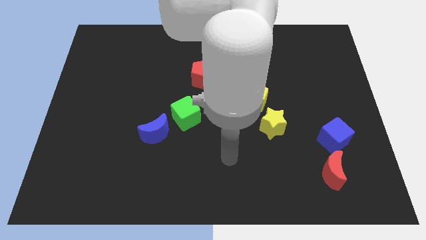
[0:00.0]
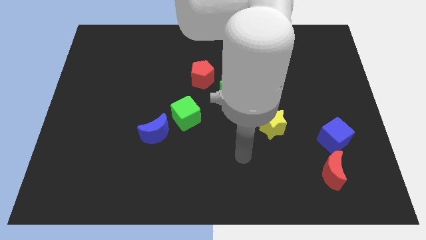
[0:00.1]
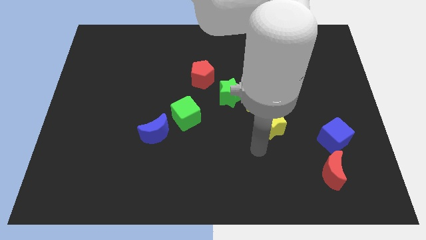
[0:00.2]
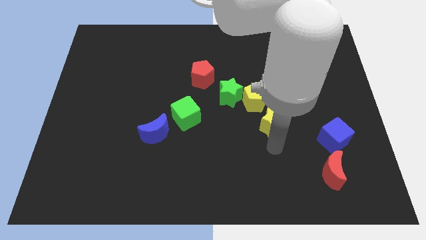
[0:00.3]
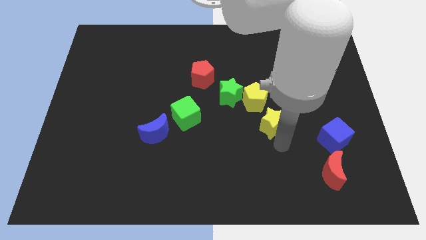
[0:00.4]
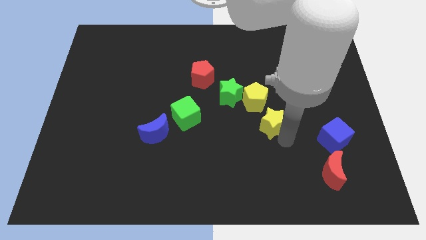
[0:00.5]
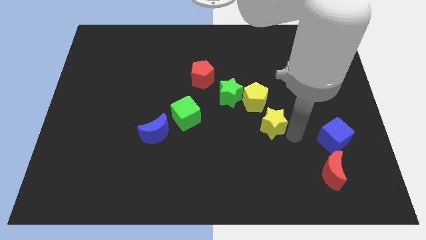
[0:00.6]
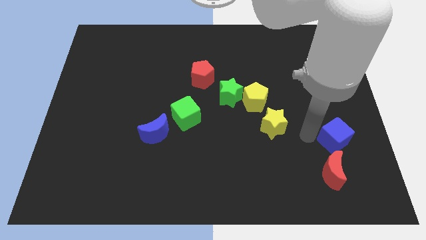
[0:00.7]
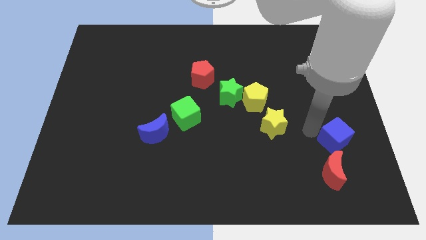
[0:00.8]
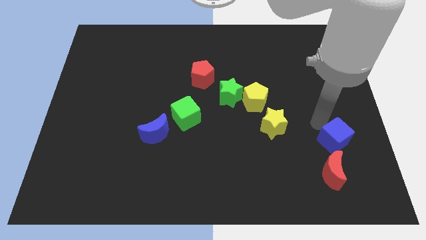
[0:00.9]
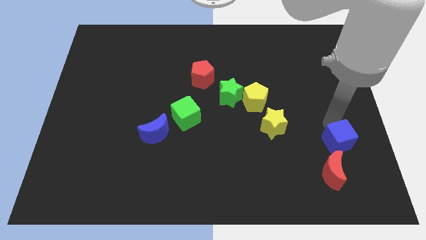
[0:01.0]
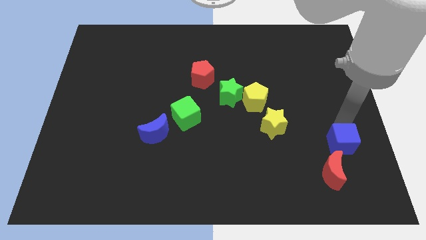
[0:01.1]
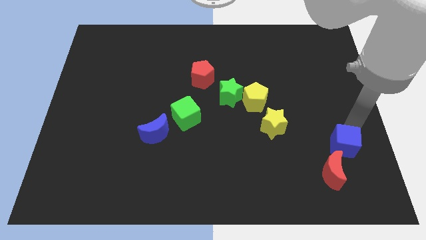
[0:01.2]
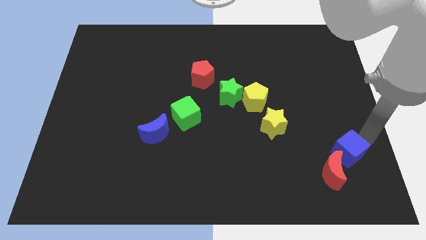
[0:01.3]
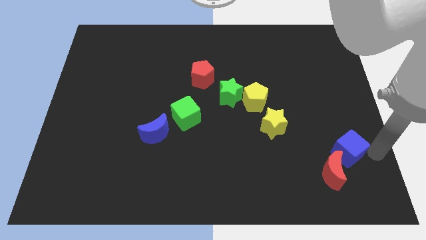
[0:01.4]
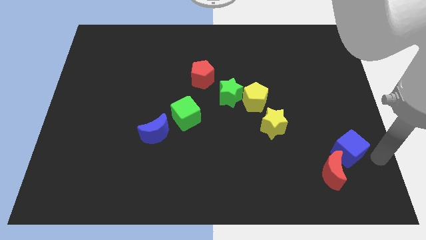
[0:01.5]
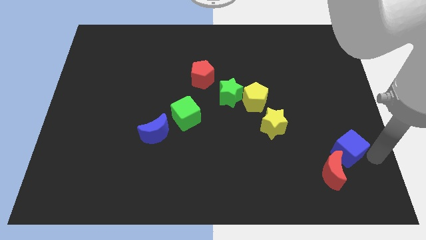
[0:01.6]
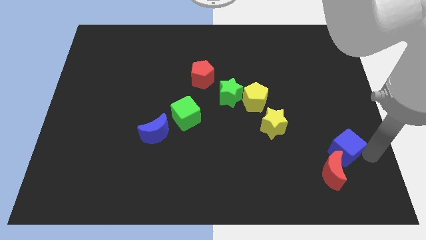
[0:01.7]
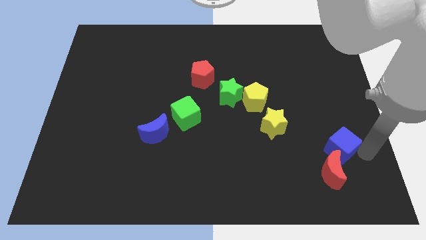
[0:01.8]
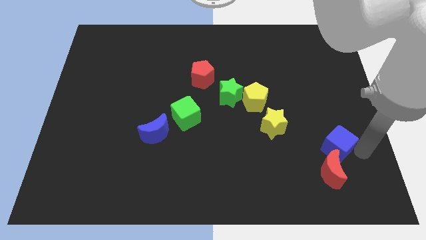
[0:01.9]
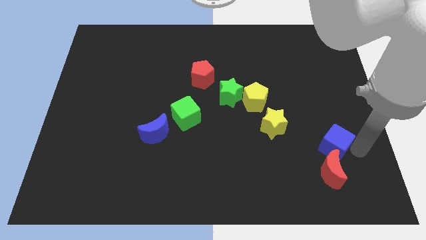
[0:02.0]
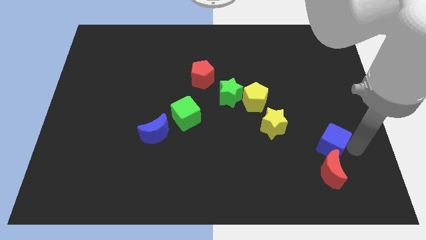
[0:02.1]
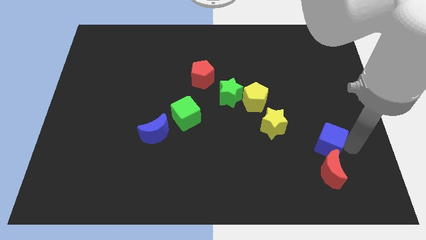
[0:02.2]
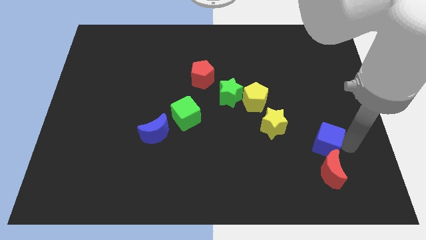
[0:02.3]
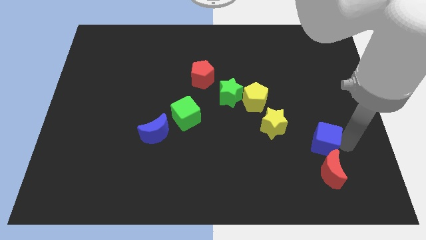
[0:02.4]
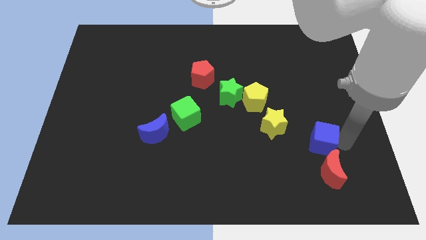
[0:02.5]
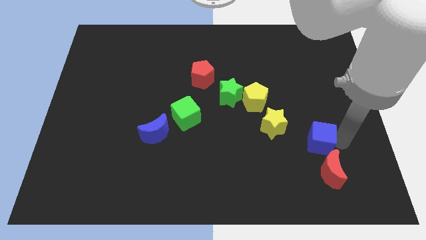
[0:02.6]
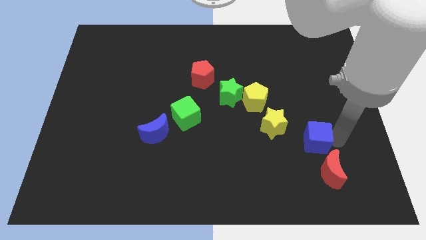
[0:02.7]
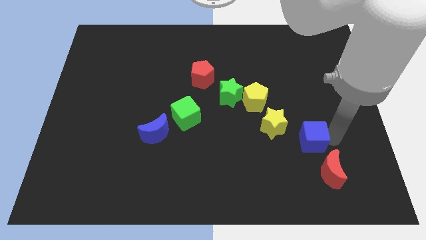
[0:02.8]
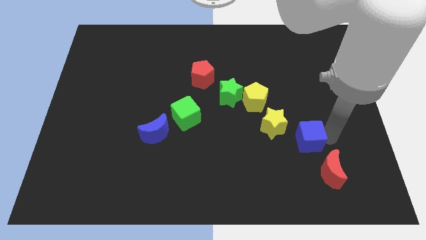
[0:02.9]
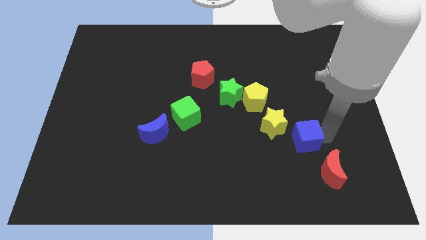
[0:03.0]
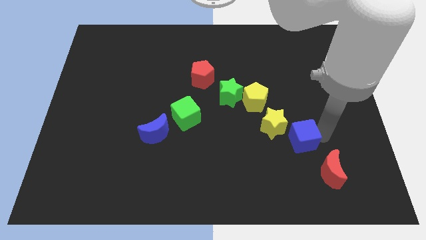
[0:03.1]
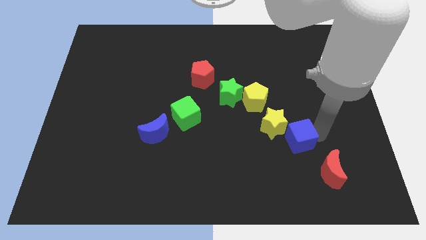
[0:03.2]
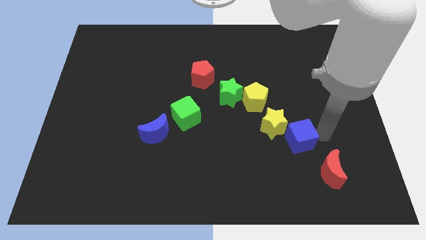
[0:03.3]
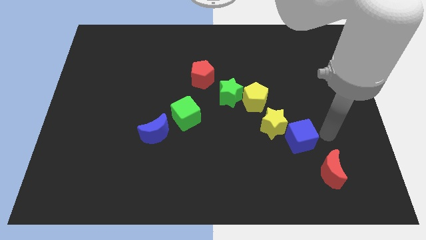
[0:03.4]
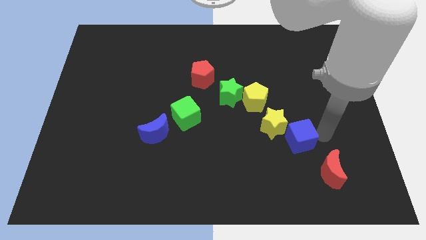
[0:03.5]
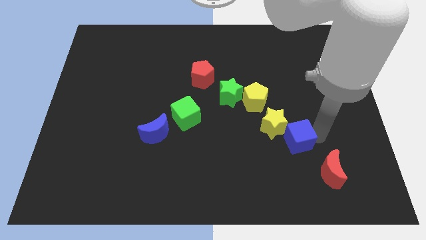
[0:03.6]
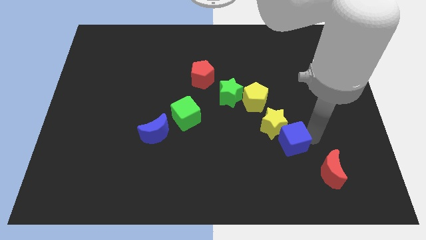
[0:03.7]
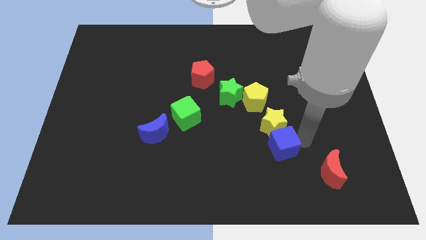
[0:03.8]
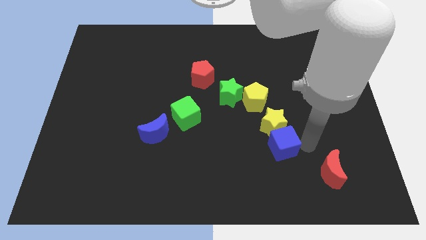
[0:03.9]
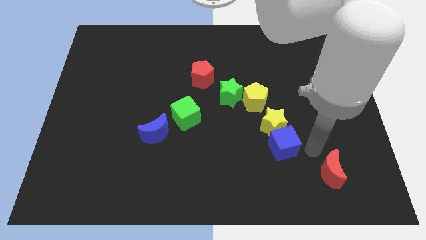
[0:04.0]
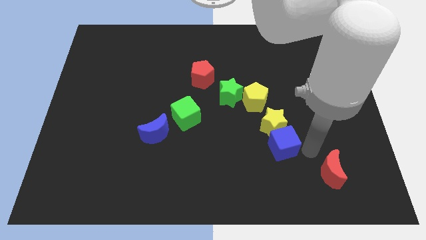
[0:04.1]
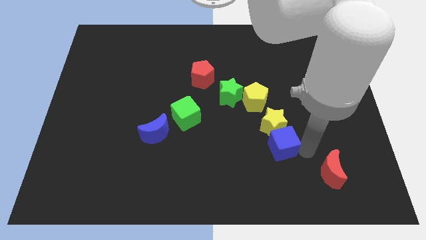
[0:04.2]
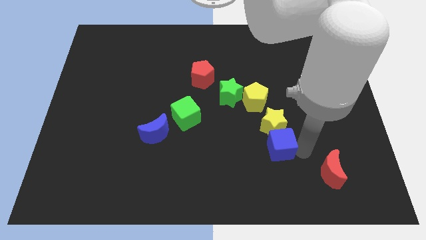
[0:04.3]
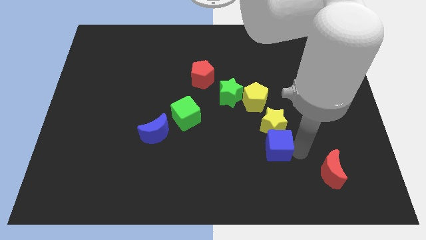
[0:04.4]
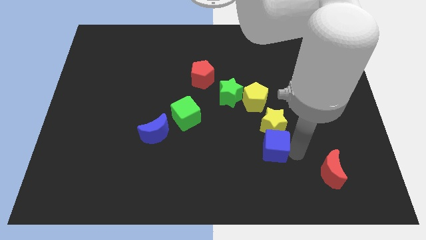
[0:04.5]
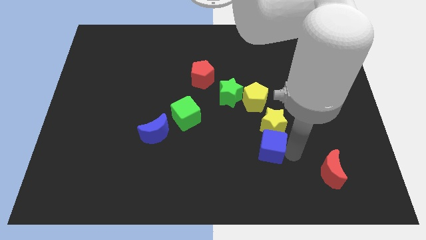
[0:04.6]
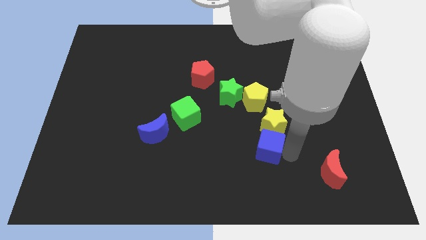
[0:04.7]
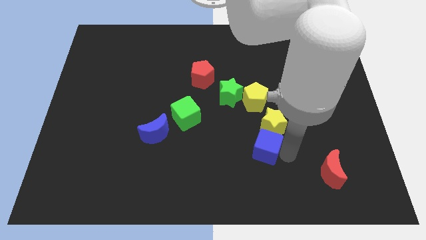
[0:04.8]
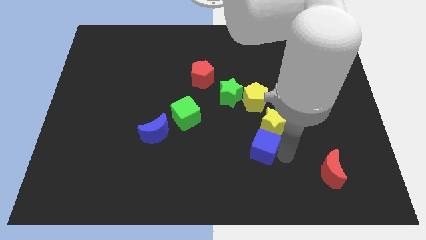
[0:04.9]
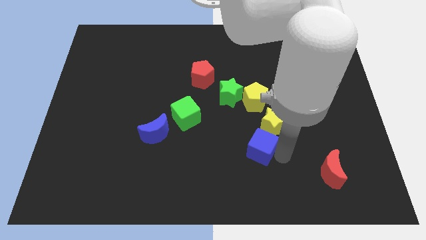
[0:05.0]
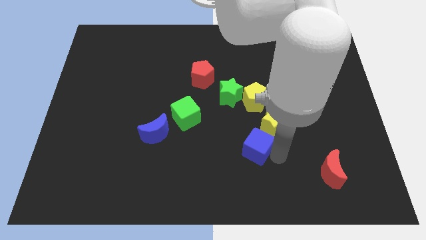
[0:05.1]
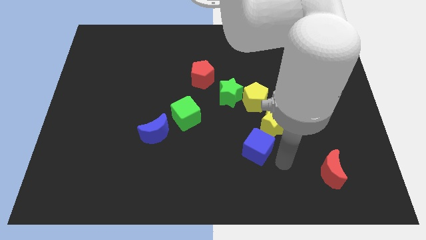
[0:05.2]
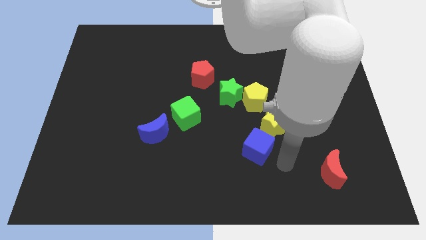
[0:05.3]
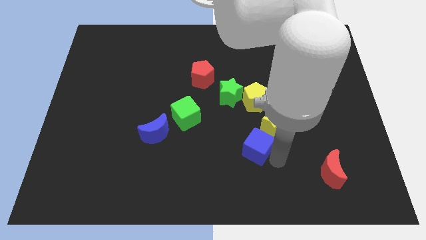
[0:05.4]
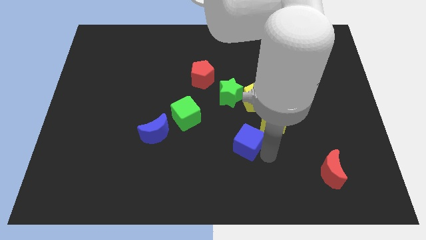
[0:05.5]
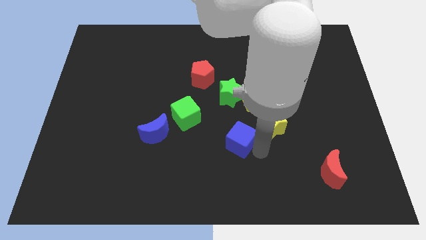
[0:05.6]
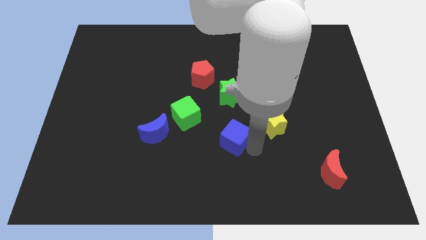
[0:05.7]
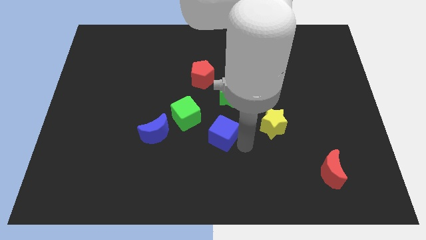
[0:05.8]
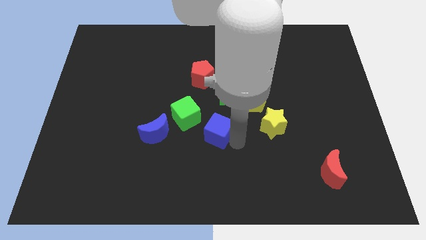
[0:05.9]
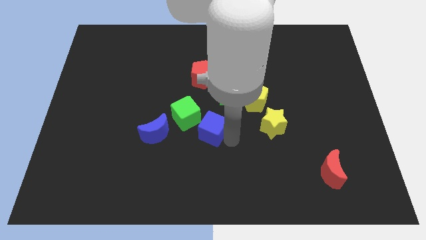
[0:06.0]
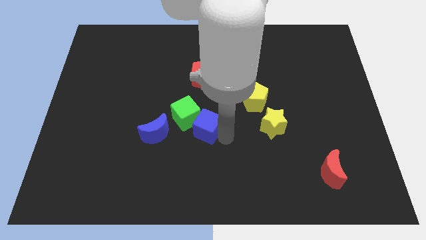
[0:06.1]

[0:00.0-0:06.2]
push the blue cube to the bottom side of the red pentagon

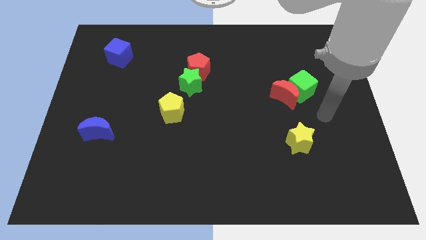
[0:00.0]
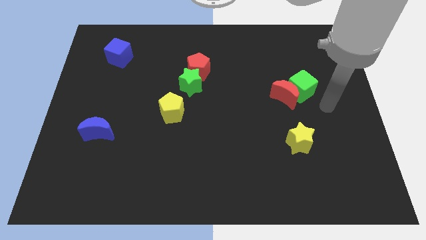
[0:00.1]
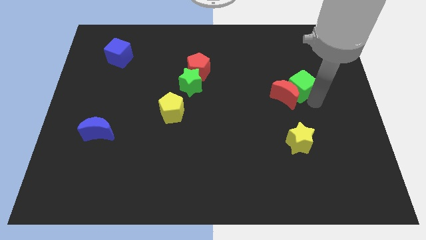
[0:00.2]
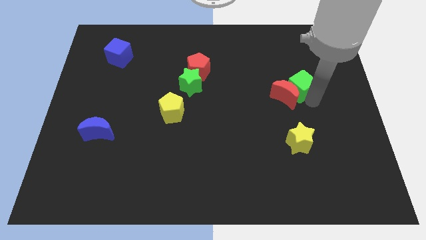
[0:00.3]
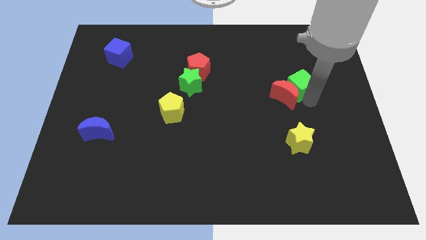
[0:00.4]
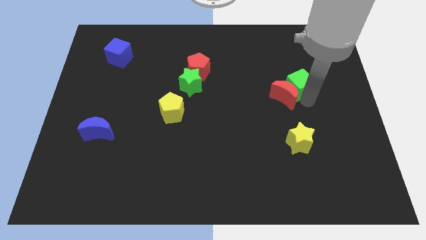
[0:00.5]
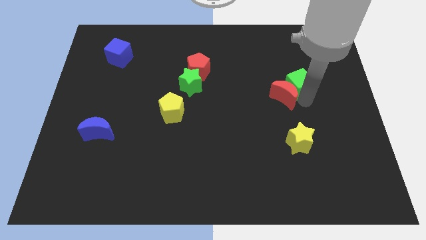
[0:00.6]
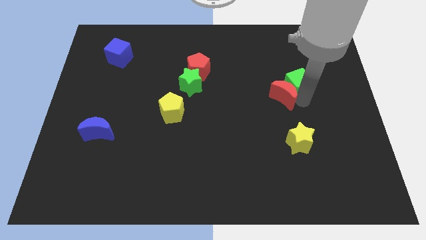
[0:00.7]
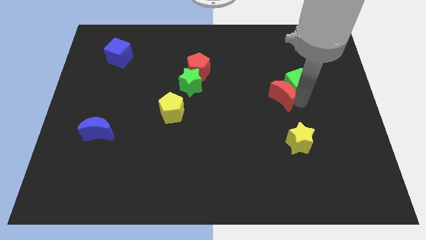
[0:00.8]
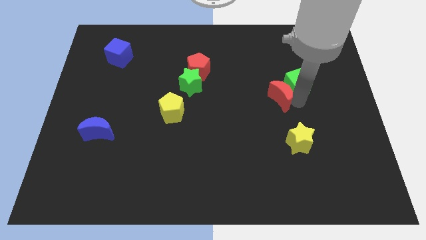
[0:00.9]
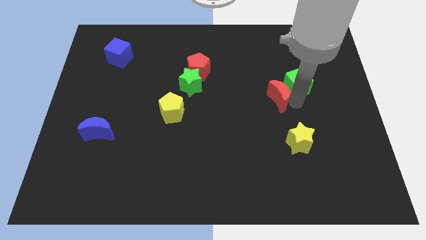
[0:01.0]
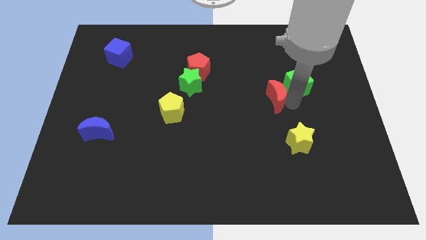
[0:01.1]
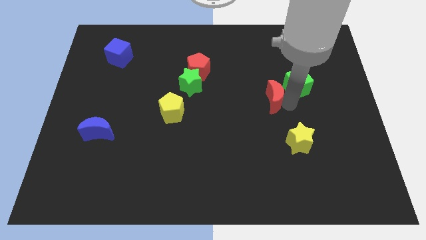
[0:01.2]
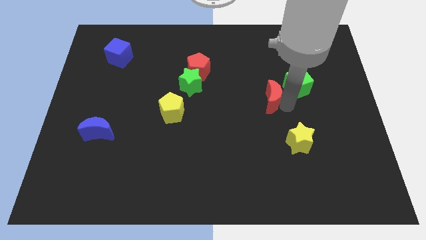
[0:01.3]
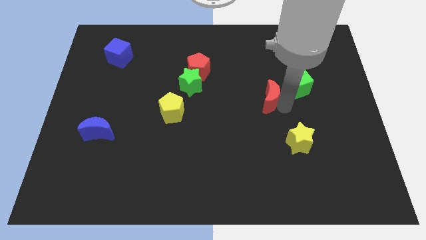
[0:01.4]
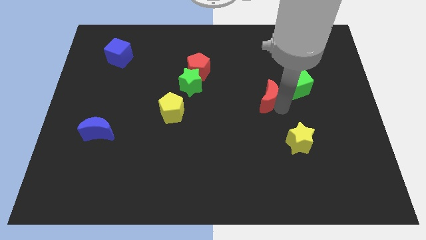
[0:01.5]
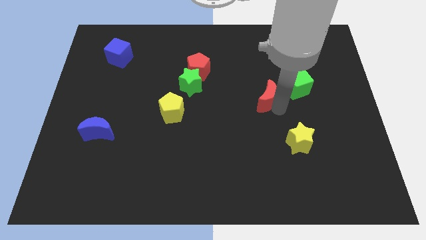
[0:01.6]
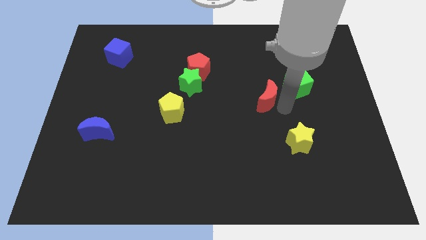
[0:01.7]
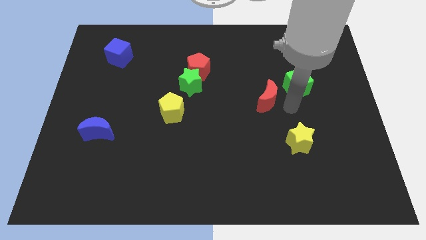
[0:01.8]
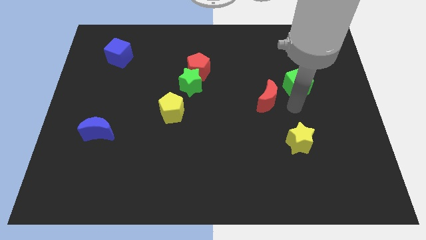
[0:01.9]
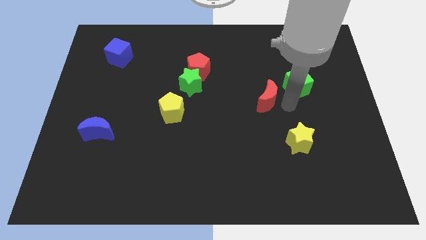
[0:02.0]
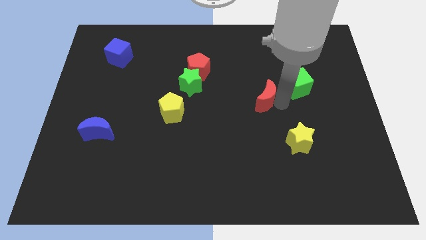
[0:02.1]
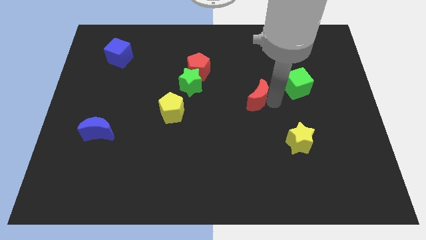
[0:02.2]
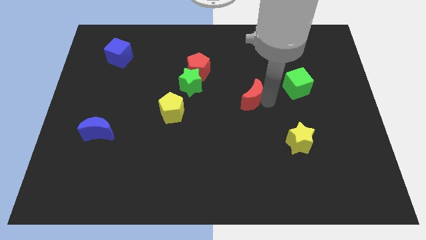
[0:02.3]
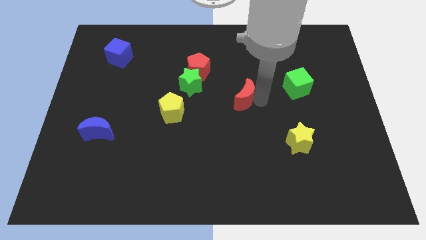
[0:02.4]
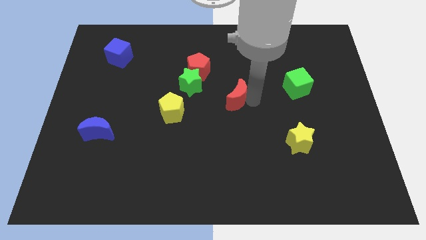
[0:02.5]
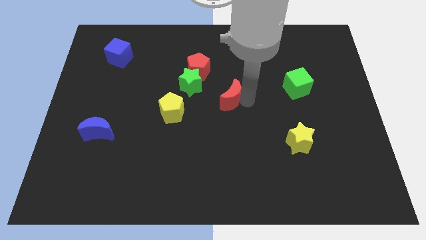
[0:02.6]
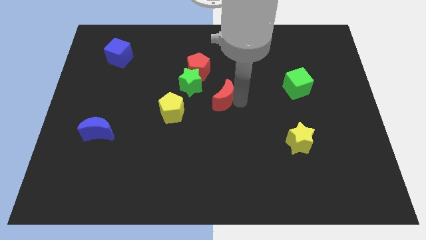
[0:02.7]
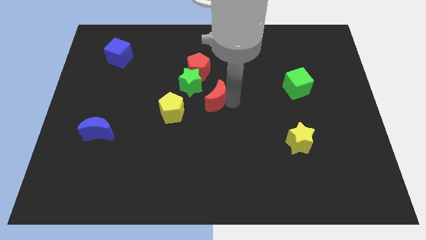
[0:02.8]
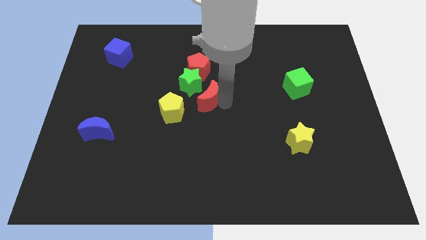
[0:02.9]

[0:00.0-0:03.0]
put the red moon to the top right of the yellow pentagon
